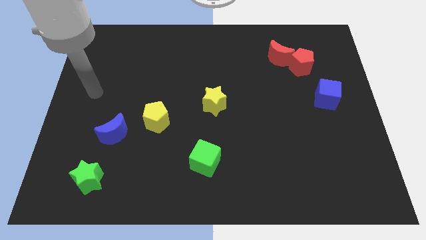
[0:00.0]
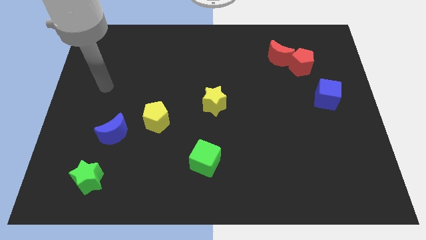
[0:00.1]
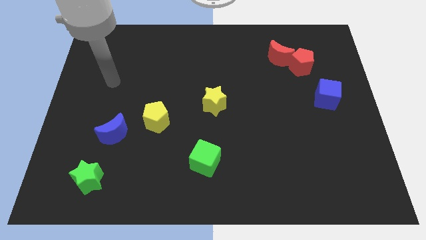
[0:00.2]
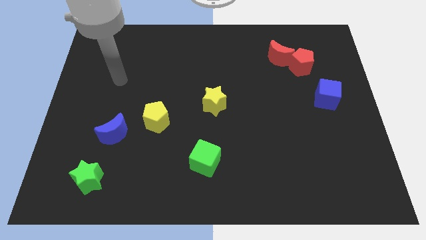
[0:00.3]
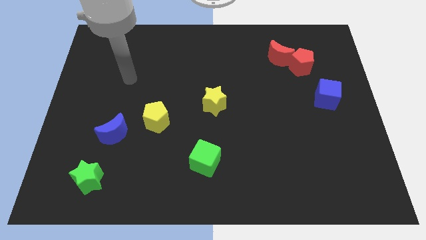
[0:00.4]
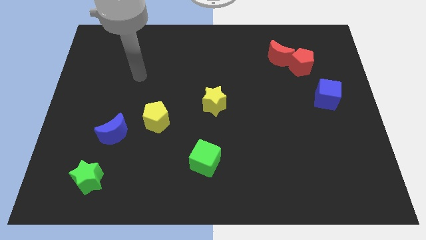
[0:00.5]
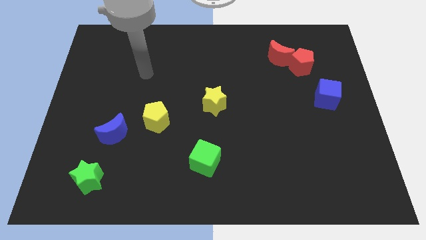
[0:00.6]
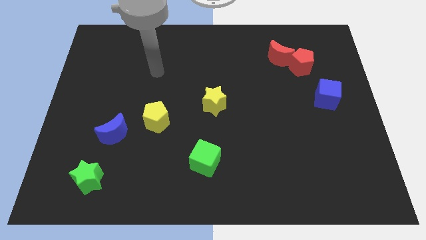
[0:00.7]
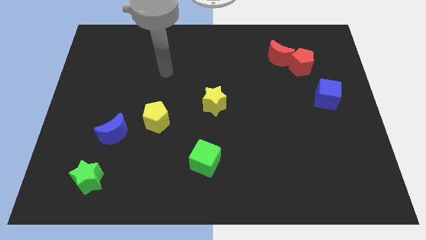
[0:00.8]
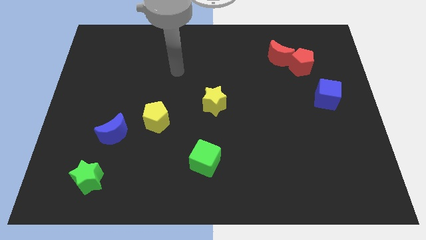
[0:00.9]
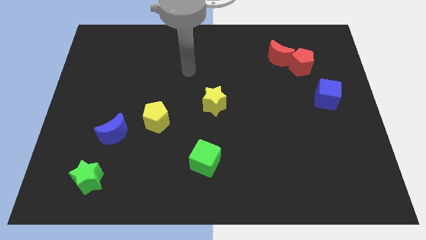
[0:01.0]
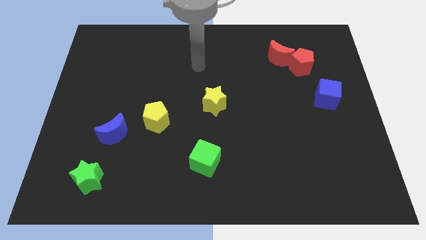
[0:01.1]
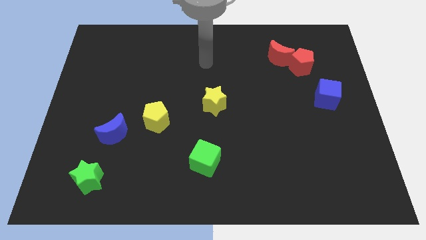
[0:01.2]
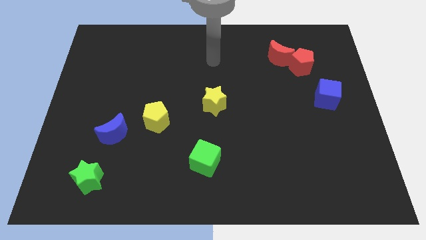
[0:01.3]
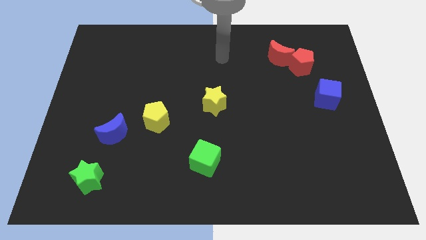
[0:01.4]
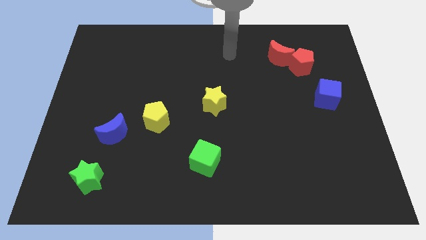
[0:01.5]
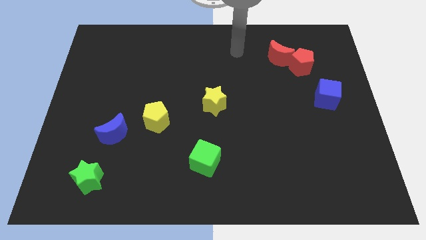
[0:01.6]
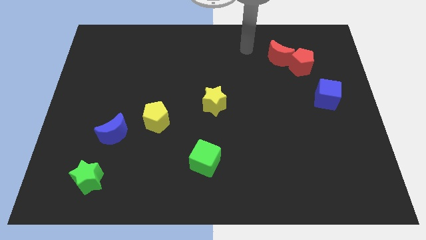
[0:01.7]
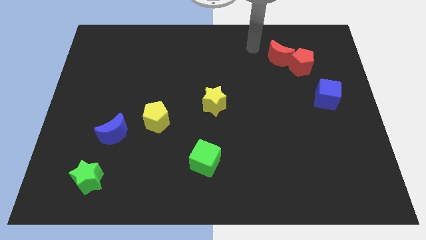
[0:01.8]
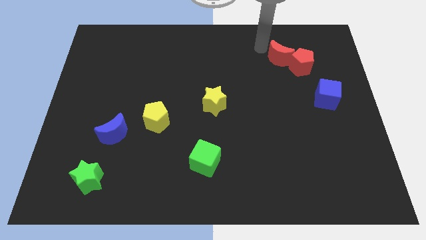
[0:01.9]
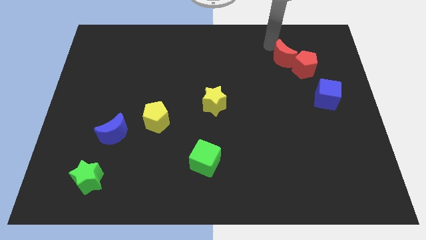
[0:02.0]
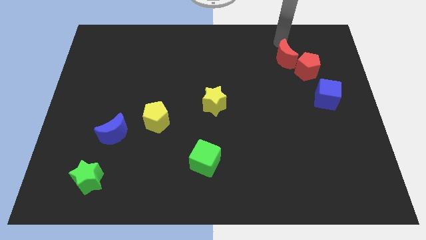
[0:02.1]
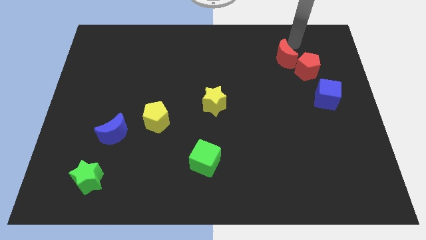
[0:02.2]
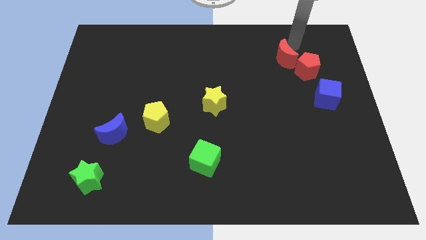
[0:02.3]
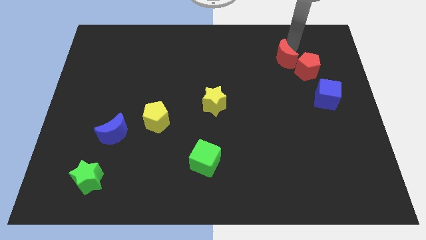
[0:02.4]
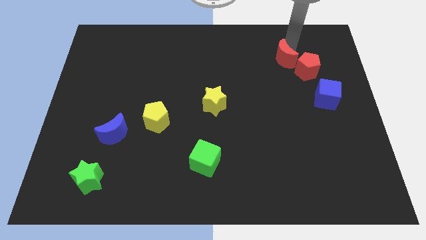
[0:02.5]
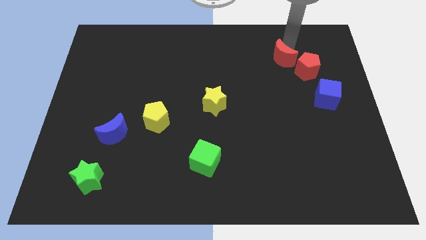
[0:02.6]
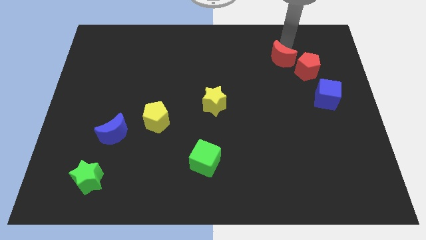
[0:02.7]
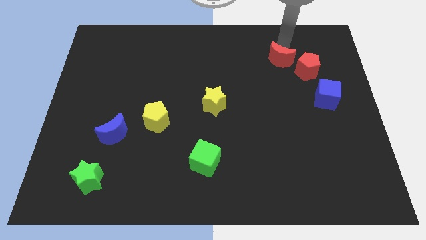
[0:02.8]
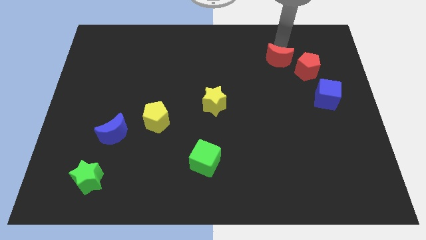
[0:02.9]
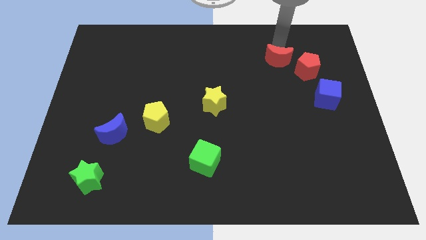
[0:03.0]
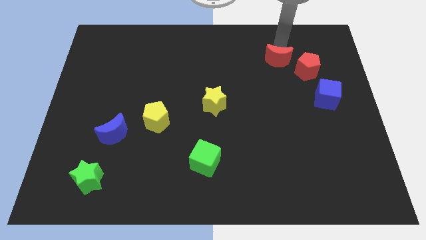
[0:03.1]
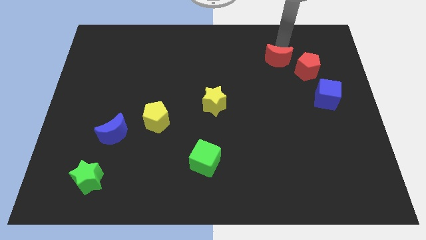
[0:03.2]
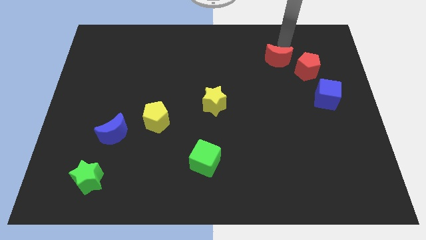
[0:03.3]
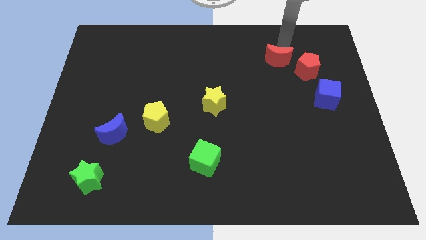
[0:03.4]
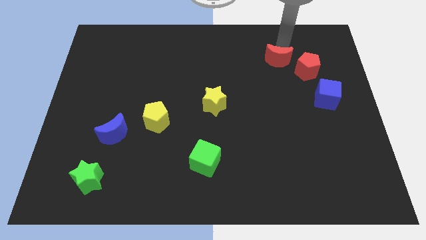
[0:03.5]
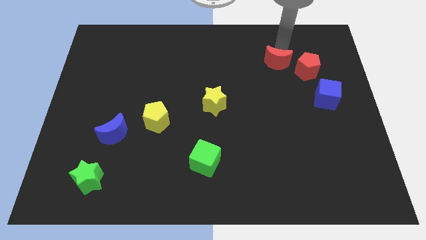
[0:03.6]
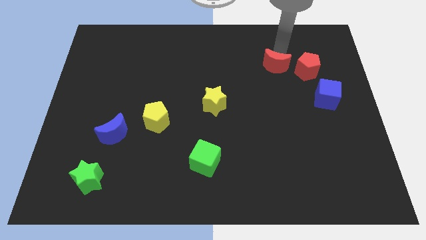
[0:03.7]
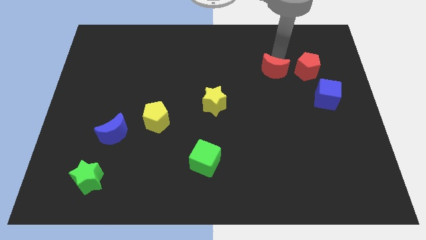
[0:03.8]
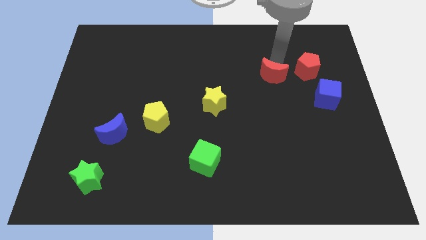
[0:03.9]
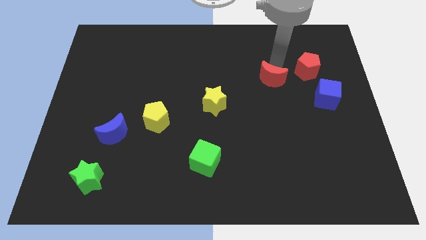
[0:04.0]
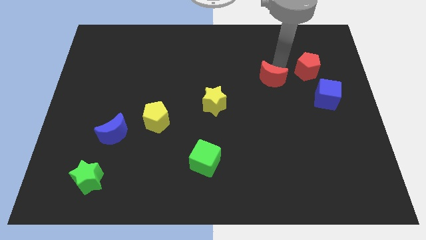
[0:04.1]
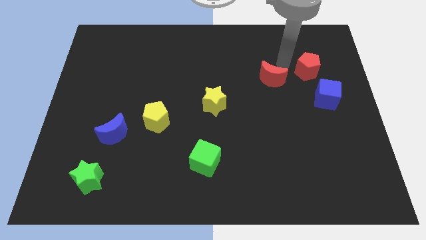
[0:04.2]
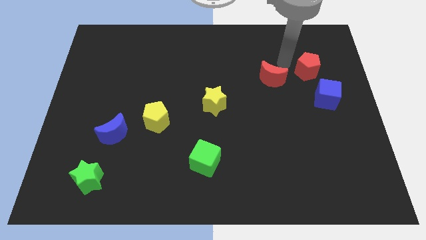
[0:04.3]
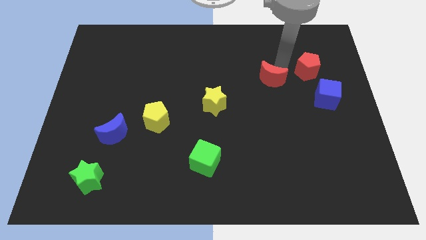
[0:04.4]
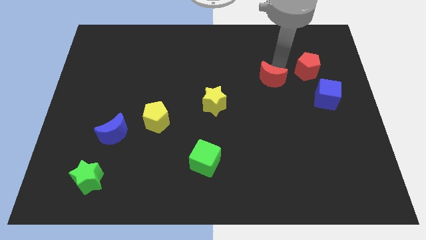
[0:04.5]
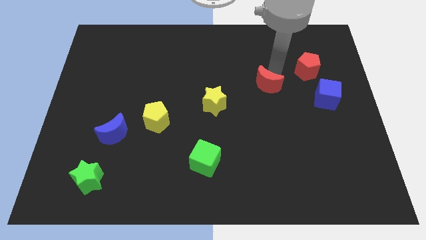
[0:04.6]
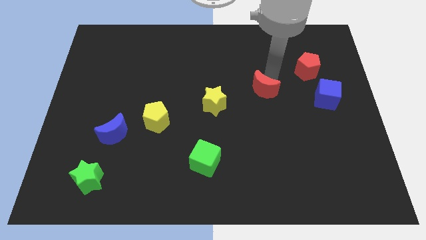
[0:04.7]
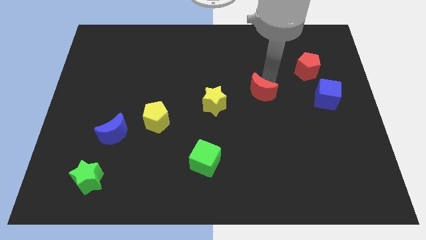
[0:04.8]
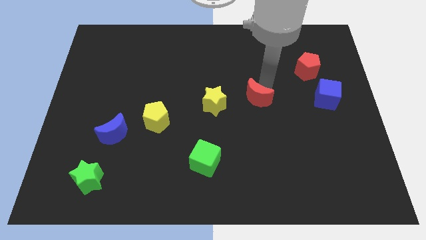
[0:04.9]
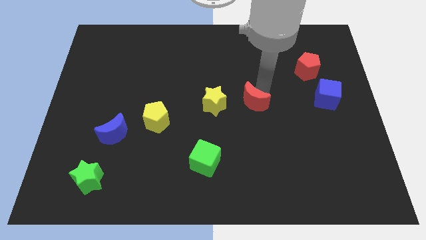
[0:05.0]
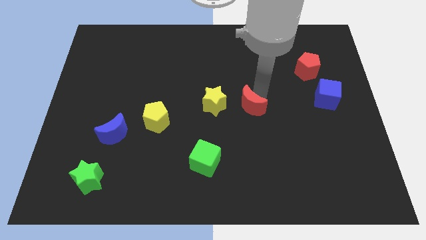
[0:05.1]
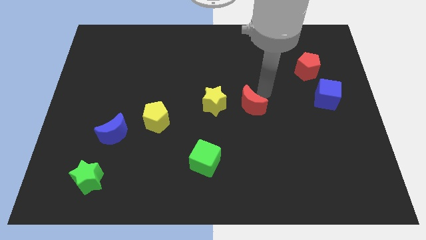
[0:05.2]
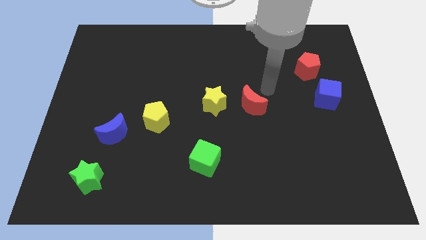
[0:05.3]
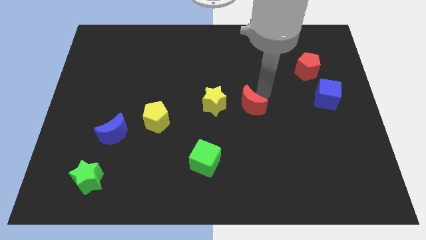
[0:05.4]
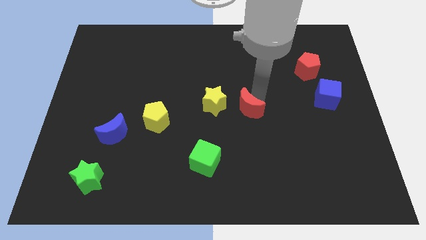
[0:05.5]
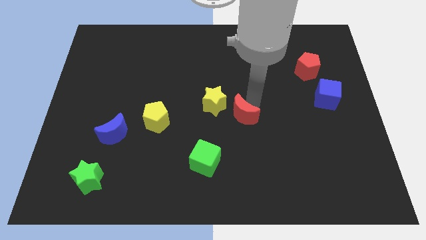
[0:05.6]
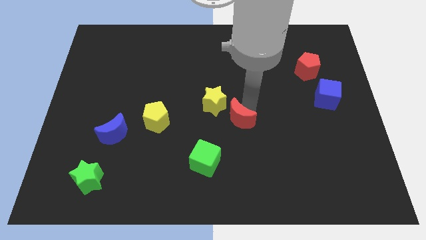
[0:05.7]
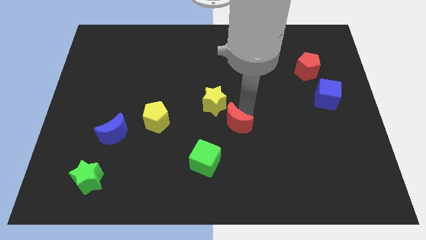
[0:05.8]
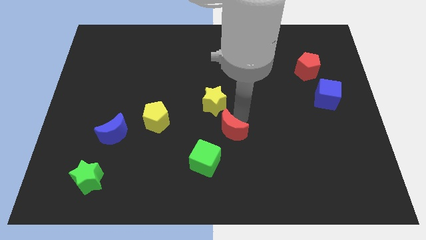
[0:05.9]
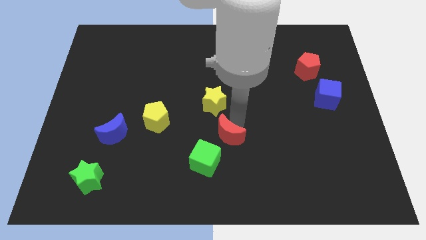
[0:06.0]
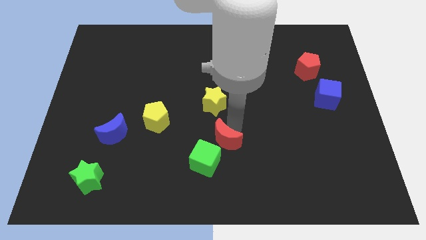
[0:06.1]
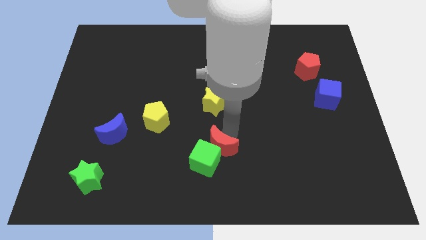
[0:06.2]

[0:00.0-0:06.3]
slide the red moon close to the green cube

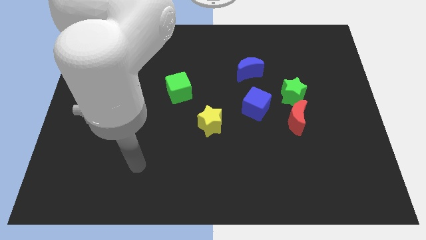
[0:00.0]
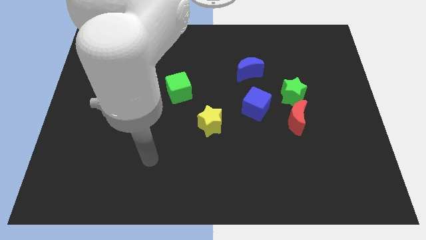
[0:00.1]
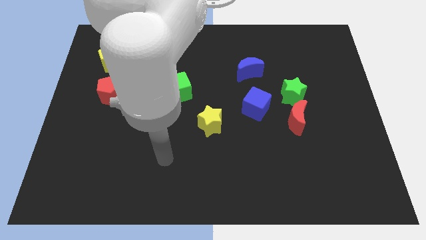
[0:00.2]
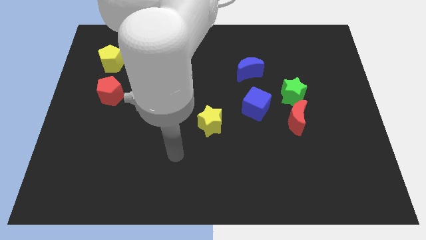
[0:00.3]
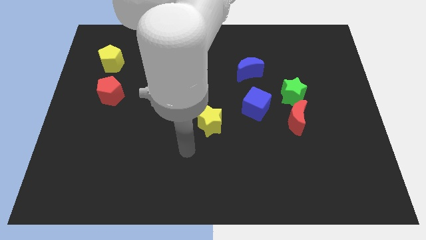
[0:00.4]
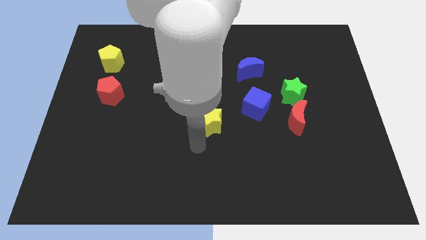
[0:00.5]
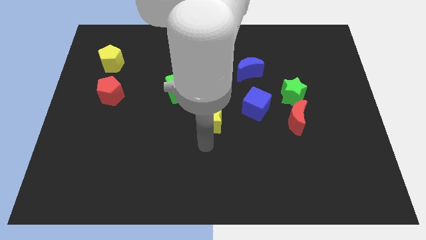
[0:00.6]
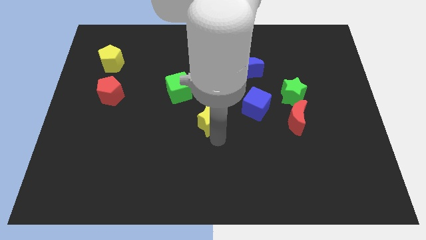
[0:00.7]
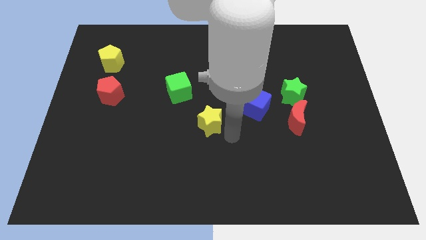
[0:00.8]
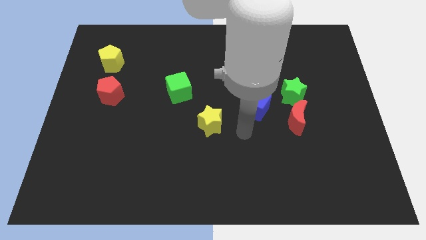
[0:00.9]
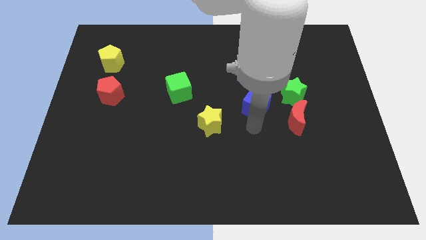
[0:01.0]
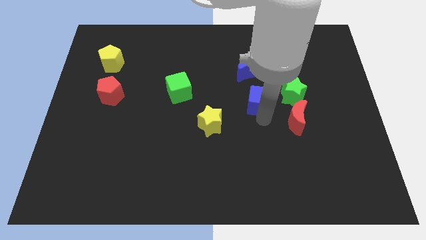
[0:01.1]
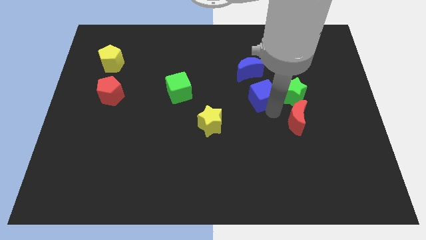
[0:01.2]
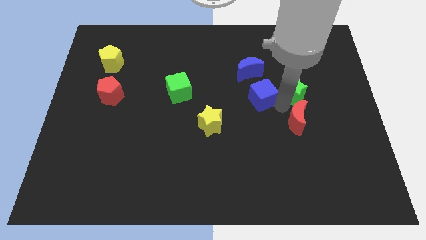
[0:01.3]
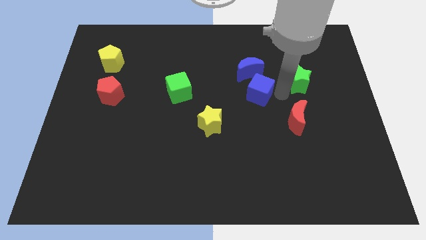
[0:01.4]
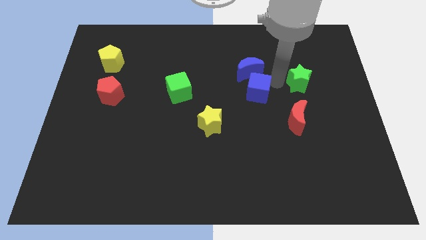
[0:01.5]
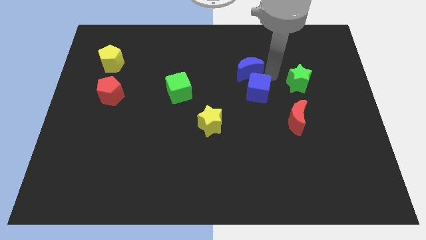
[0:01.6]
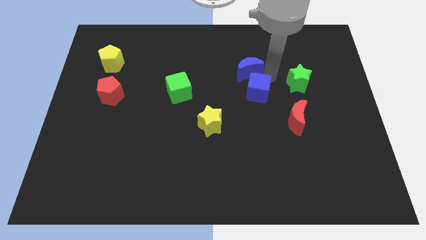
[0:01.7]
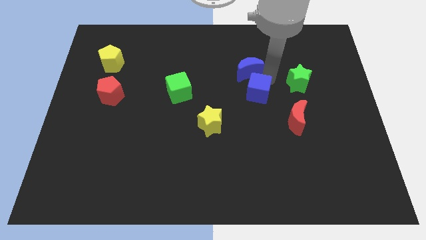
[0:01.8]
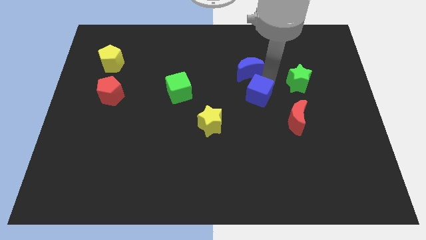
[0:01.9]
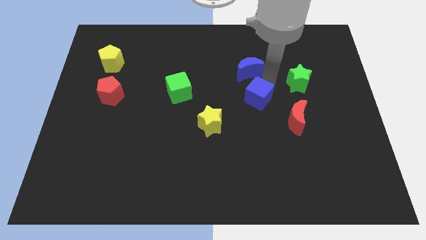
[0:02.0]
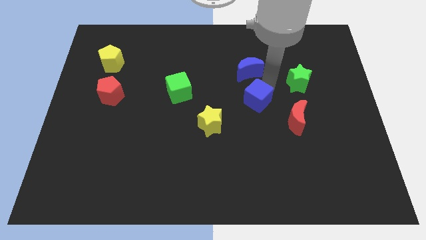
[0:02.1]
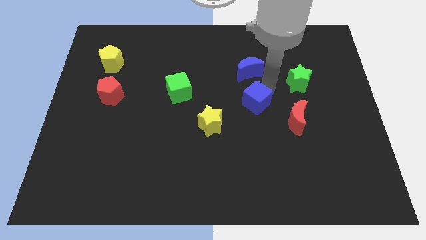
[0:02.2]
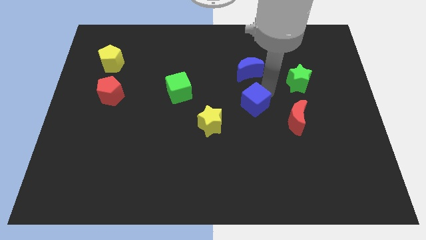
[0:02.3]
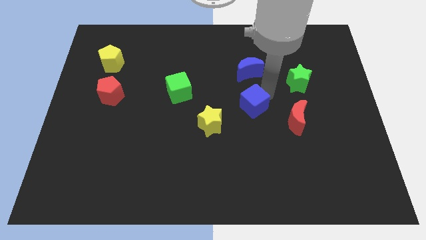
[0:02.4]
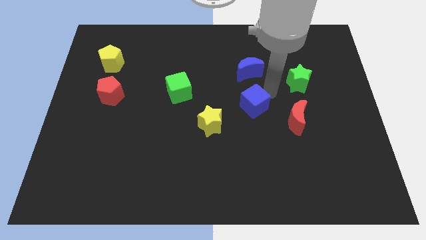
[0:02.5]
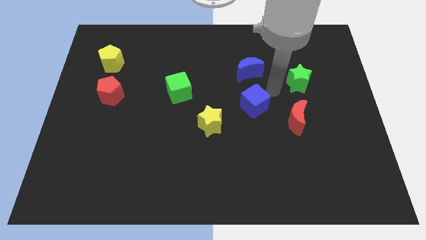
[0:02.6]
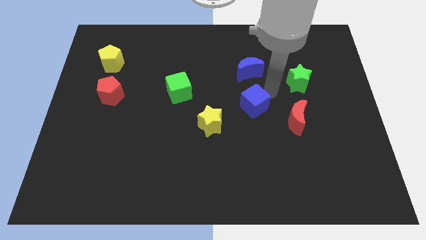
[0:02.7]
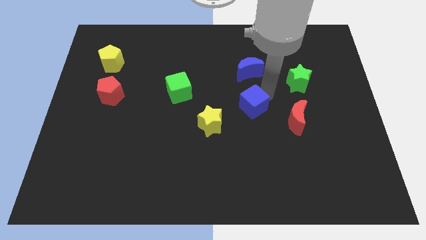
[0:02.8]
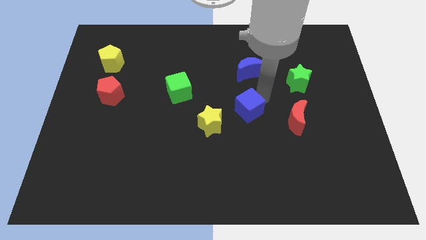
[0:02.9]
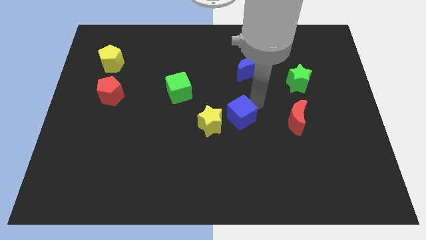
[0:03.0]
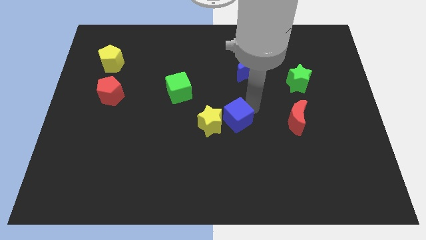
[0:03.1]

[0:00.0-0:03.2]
move the blue cube to the yellow star
